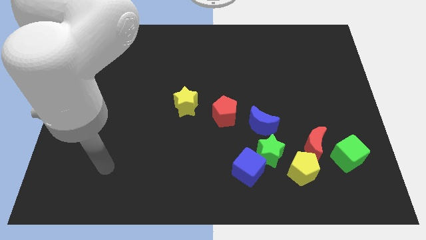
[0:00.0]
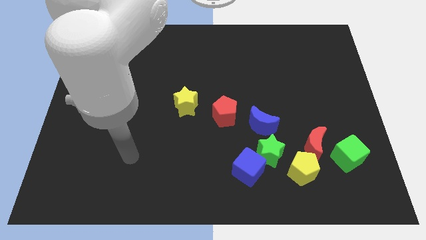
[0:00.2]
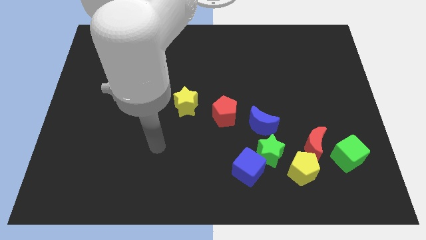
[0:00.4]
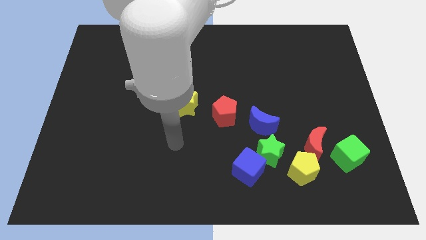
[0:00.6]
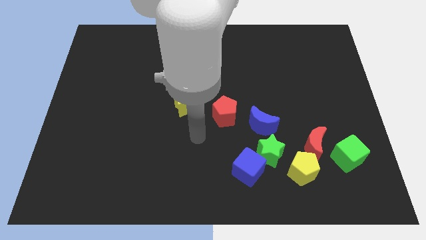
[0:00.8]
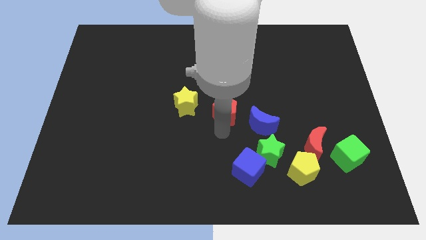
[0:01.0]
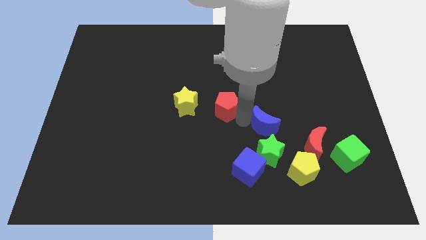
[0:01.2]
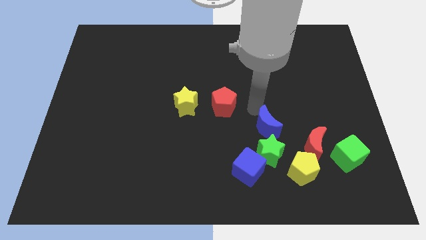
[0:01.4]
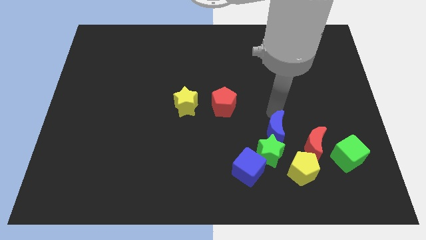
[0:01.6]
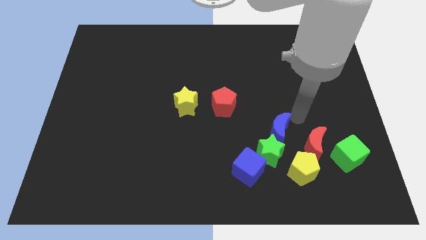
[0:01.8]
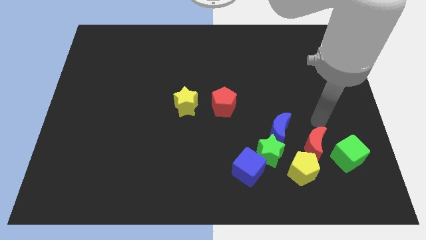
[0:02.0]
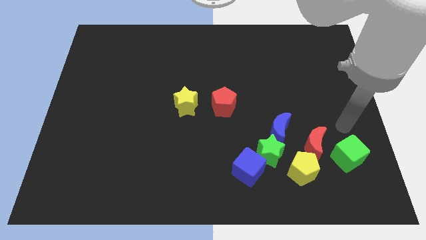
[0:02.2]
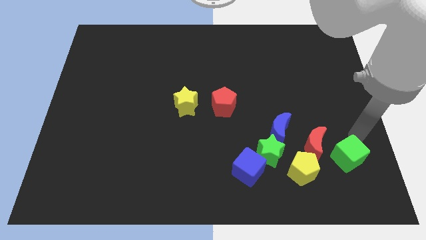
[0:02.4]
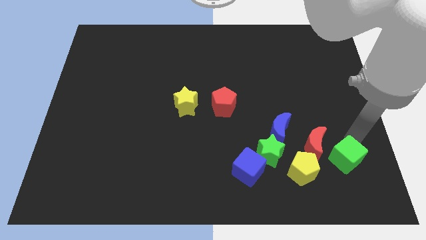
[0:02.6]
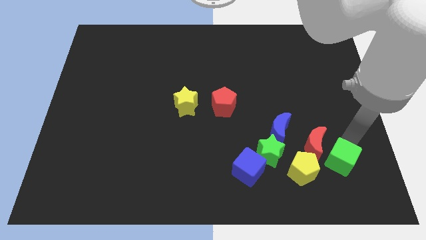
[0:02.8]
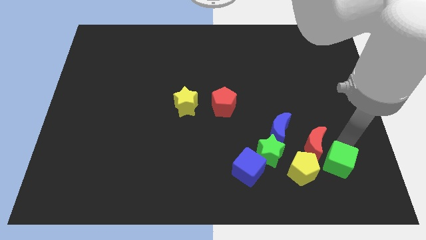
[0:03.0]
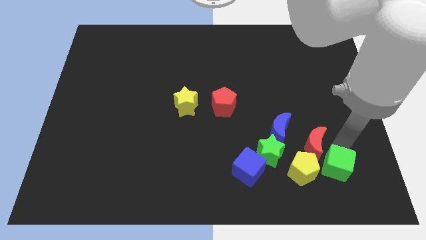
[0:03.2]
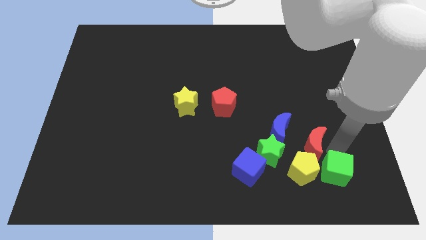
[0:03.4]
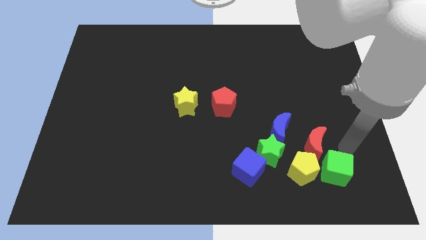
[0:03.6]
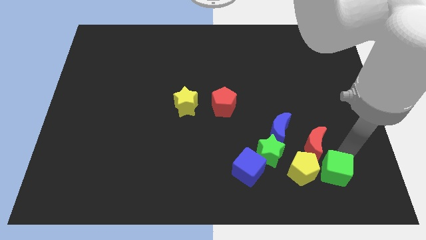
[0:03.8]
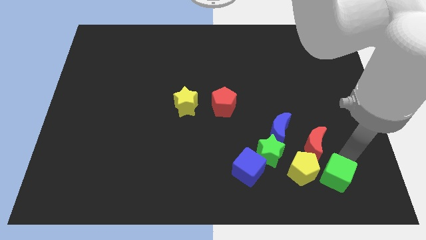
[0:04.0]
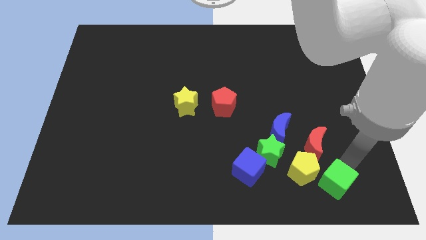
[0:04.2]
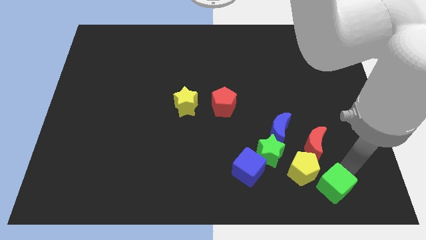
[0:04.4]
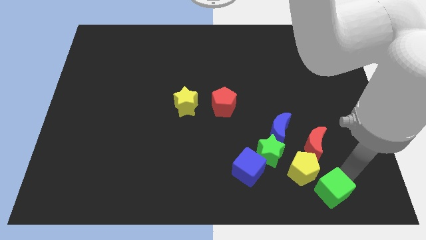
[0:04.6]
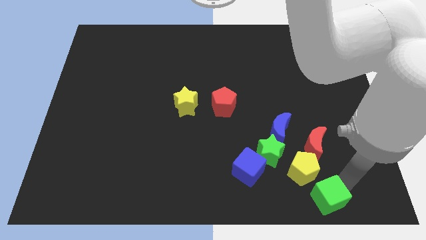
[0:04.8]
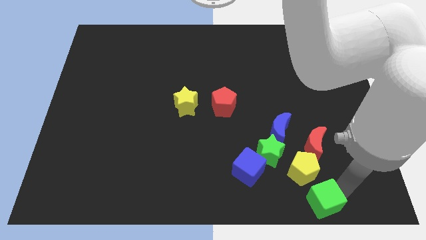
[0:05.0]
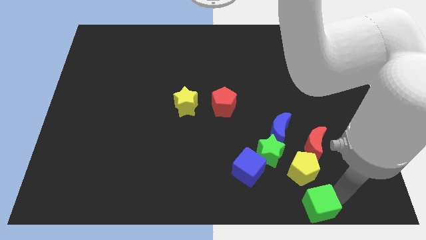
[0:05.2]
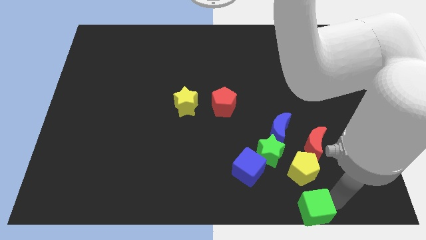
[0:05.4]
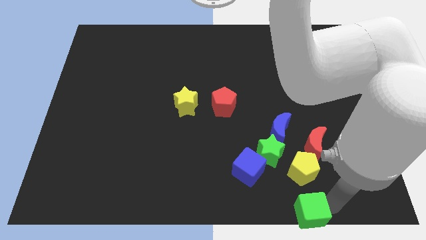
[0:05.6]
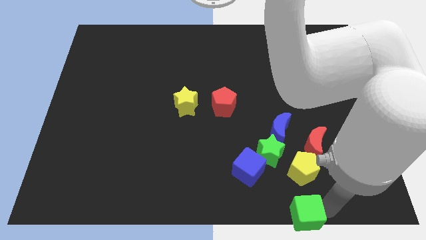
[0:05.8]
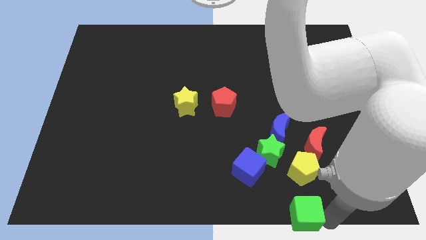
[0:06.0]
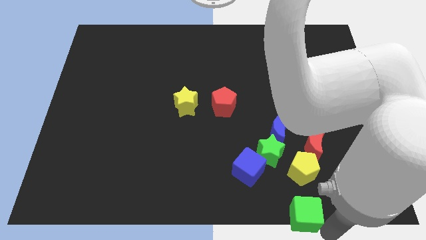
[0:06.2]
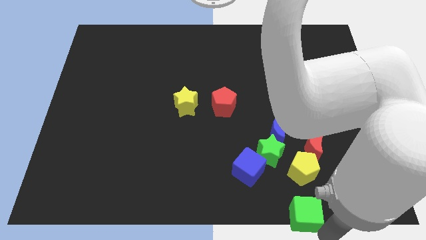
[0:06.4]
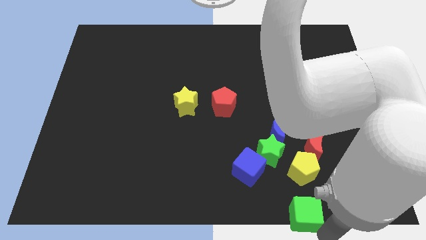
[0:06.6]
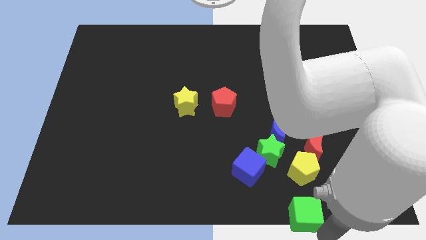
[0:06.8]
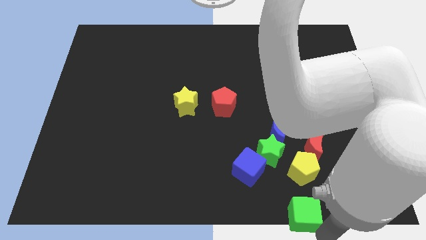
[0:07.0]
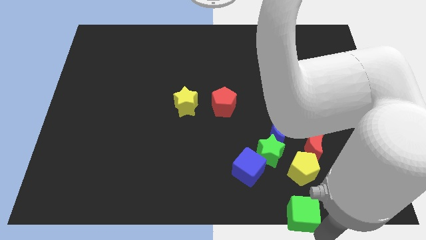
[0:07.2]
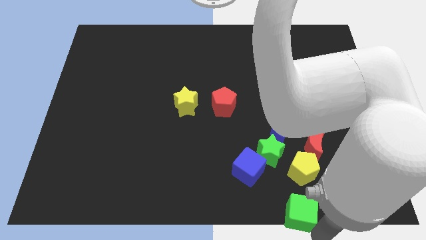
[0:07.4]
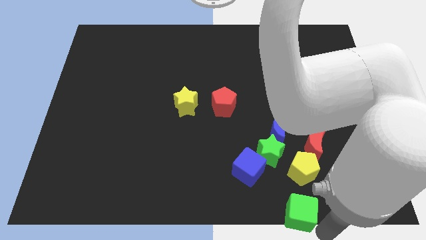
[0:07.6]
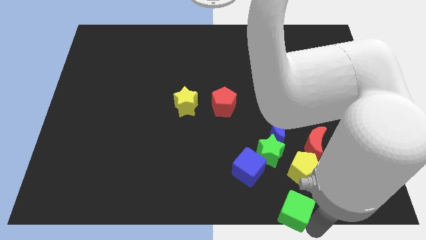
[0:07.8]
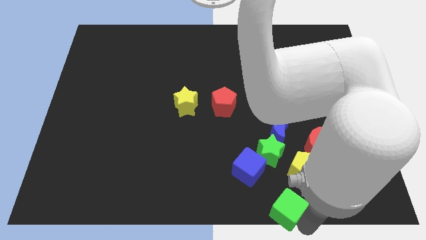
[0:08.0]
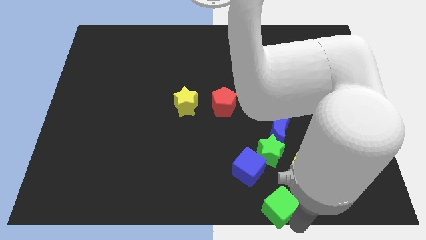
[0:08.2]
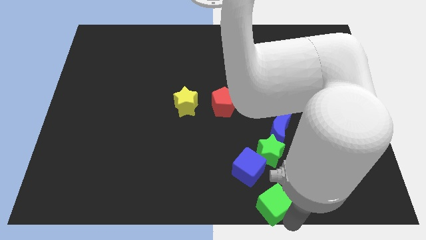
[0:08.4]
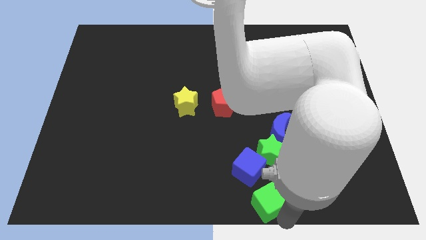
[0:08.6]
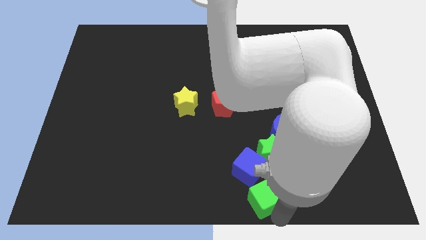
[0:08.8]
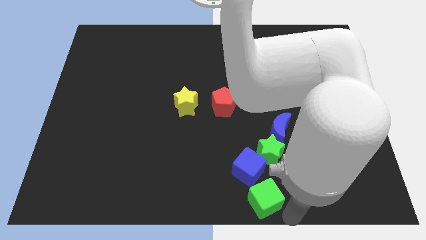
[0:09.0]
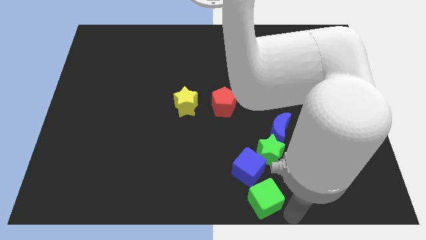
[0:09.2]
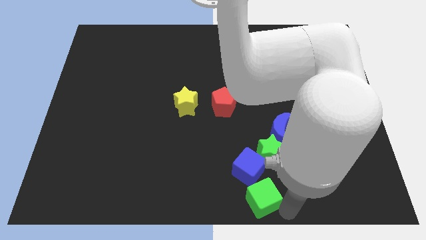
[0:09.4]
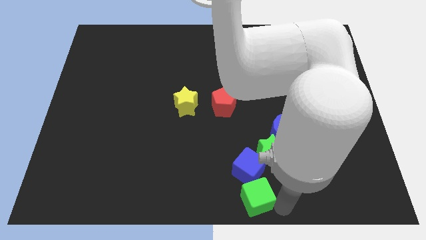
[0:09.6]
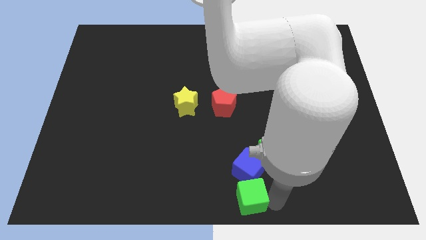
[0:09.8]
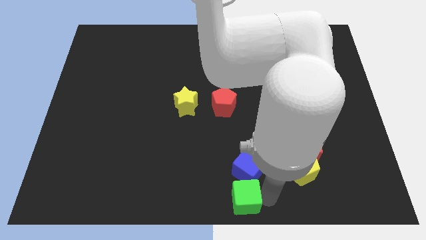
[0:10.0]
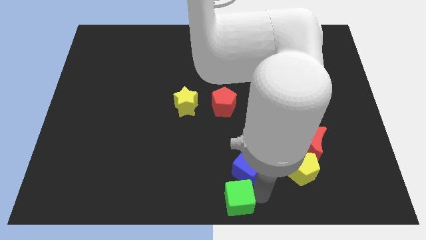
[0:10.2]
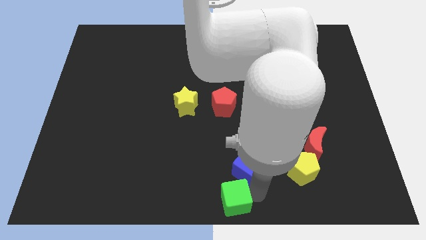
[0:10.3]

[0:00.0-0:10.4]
move the green cube to the left

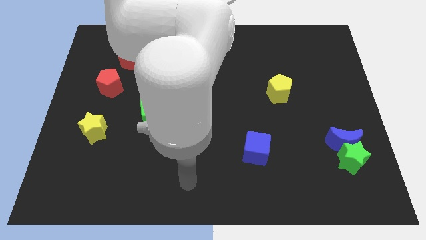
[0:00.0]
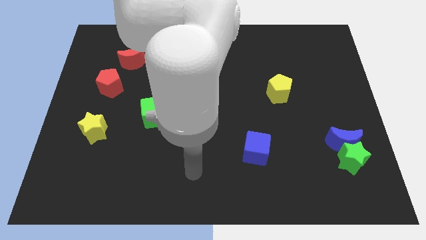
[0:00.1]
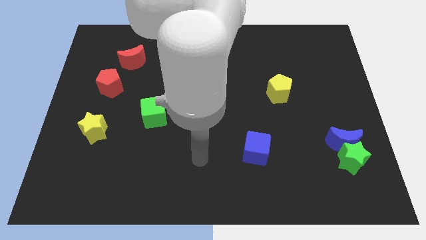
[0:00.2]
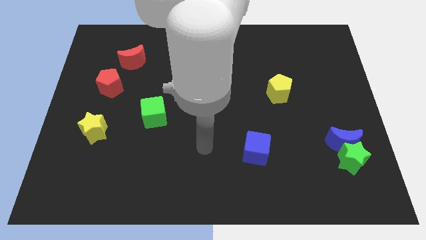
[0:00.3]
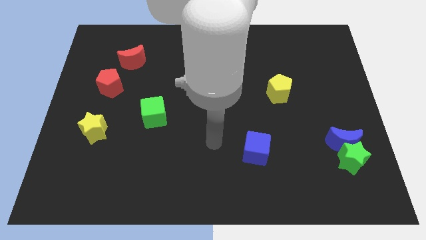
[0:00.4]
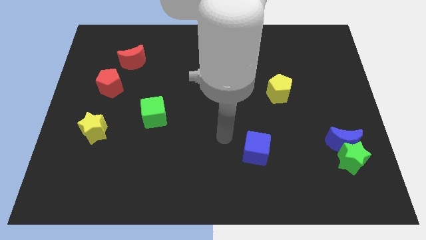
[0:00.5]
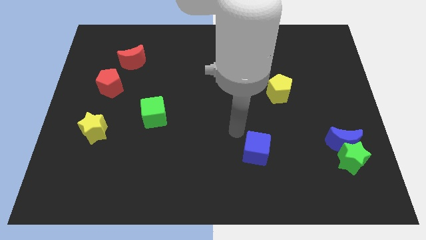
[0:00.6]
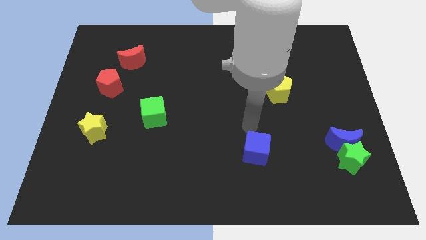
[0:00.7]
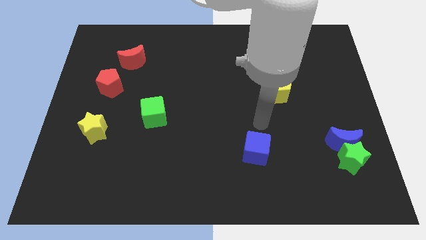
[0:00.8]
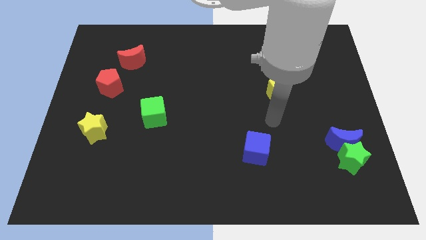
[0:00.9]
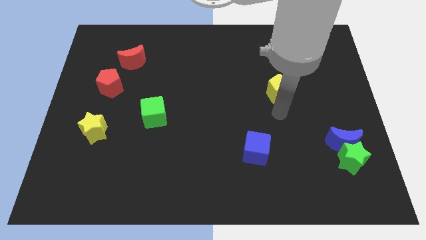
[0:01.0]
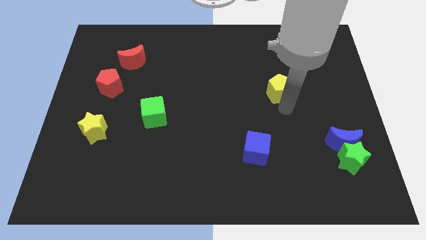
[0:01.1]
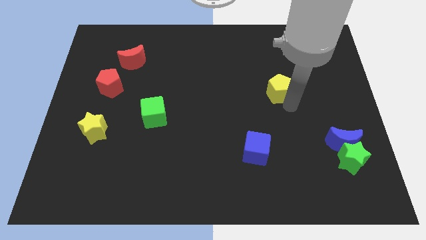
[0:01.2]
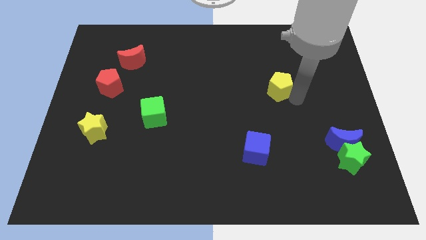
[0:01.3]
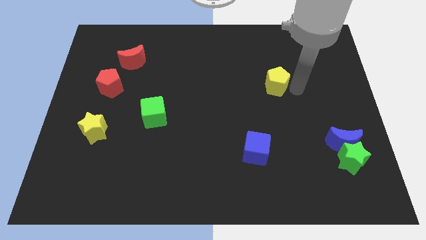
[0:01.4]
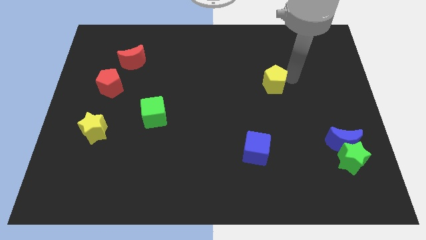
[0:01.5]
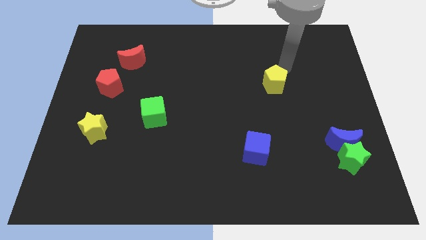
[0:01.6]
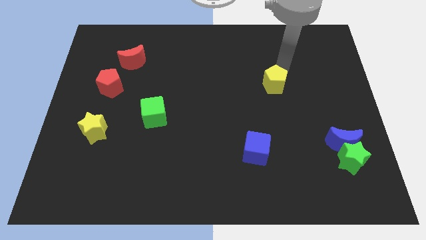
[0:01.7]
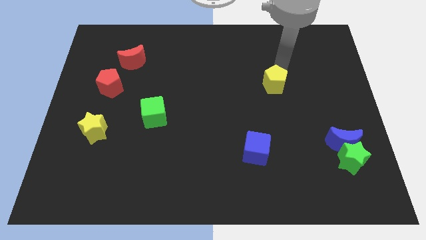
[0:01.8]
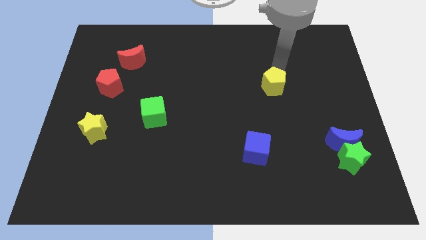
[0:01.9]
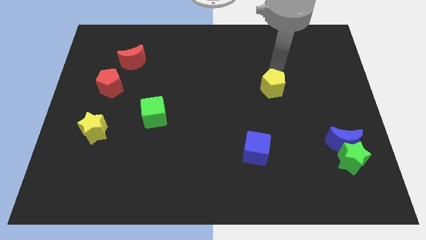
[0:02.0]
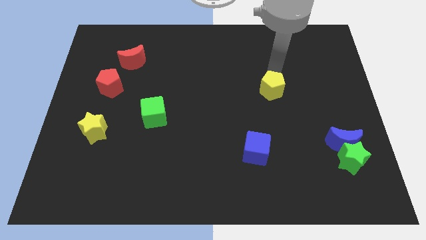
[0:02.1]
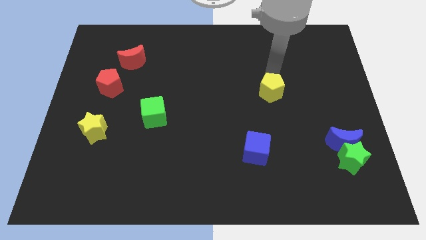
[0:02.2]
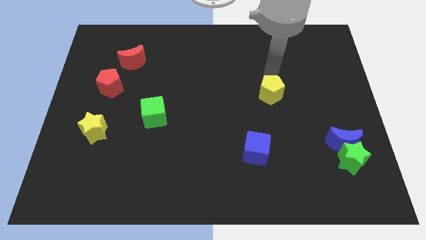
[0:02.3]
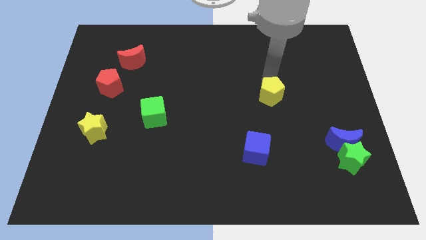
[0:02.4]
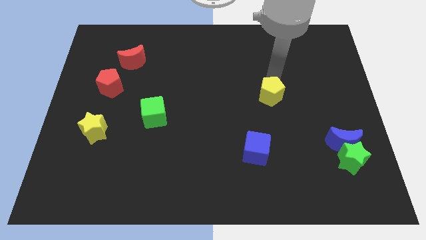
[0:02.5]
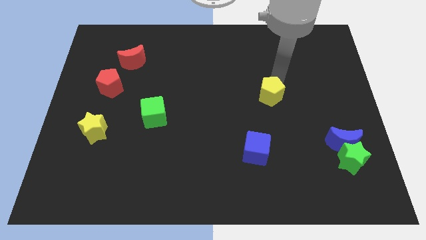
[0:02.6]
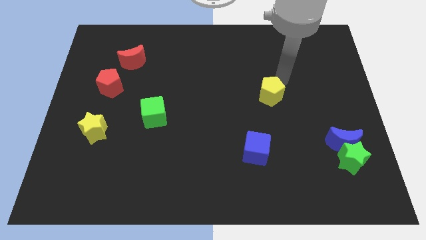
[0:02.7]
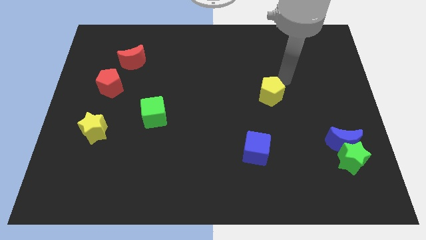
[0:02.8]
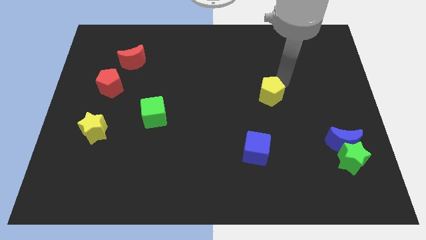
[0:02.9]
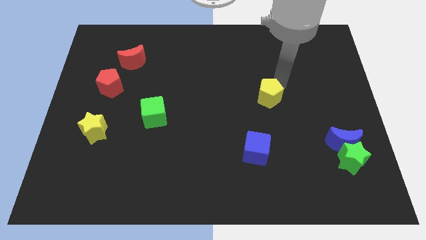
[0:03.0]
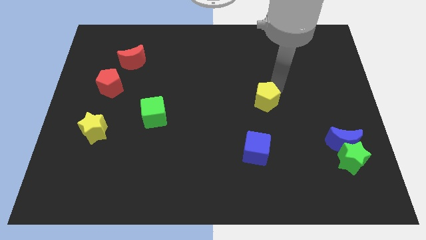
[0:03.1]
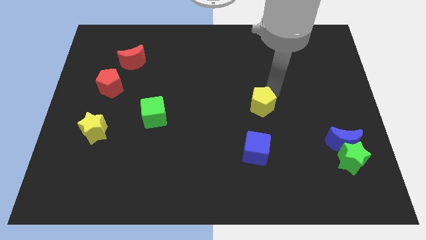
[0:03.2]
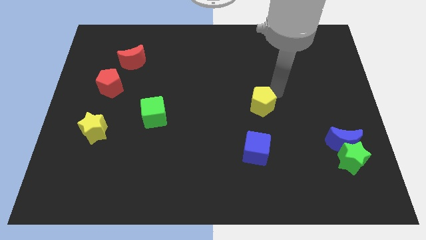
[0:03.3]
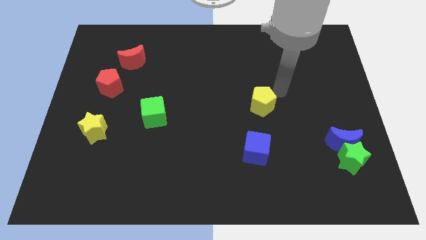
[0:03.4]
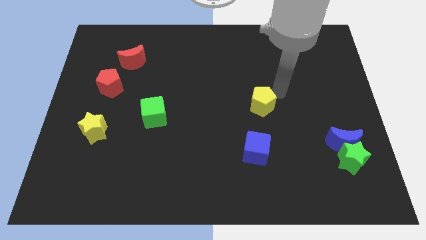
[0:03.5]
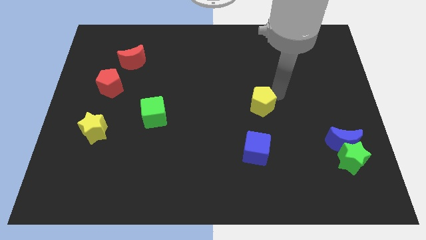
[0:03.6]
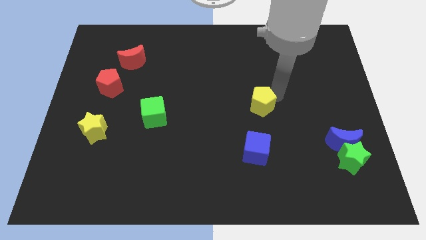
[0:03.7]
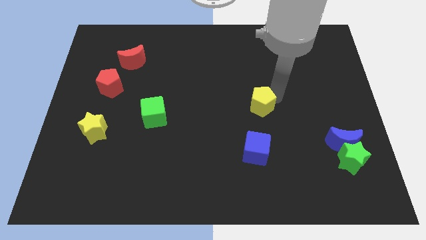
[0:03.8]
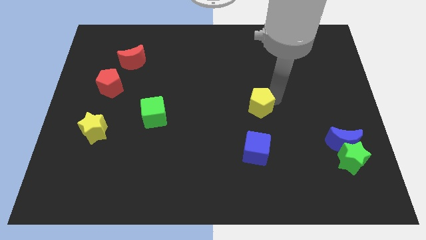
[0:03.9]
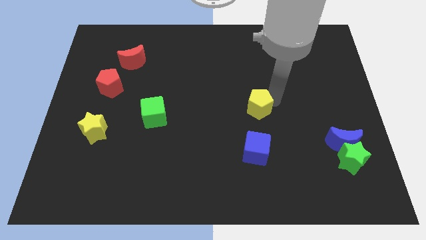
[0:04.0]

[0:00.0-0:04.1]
slightly push the yellow pentagon diagonally downwards and left
